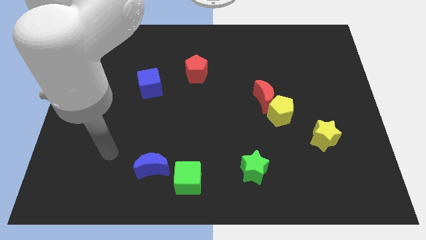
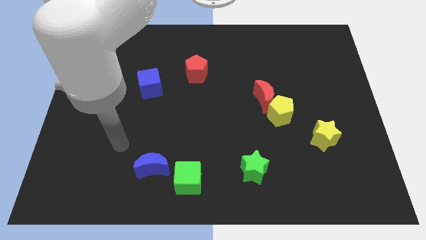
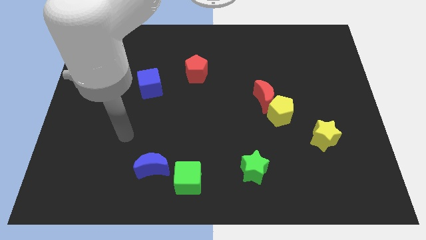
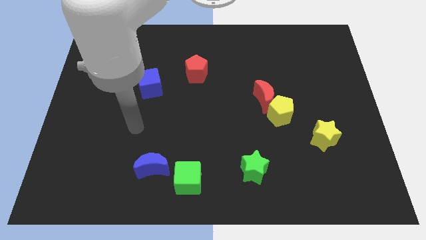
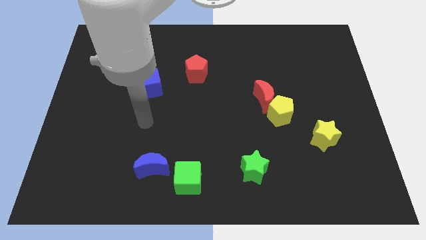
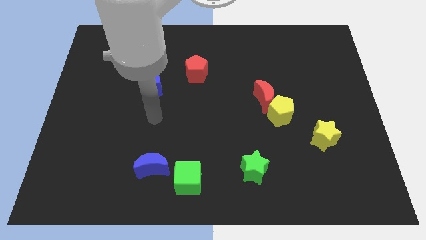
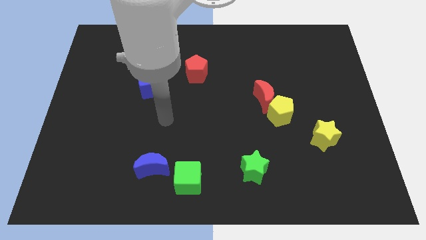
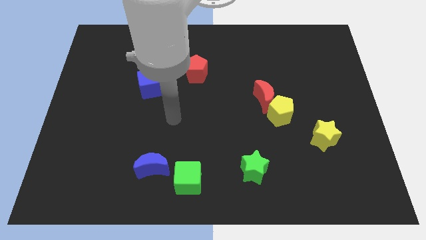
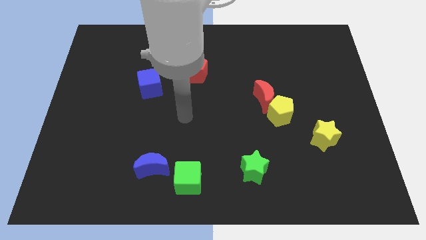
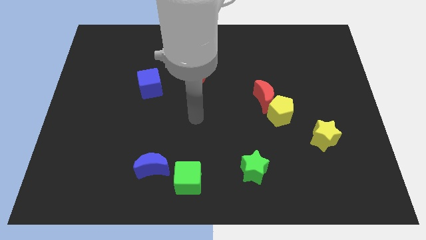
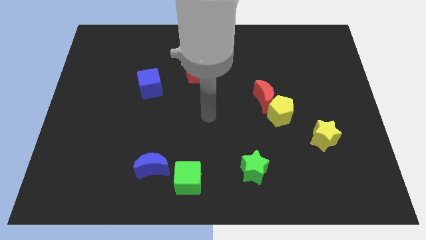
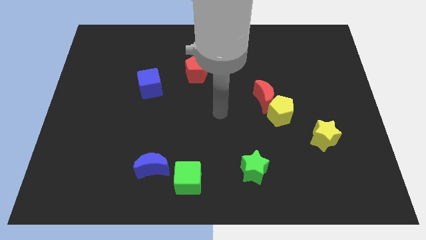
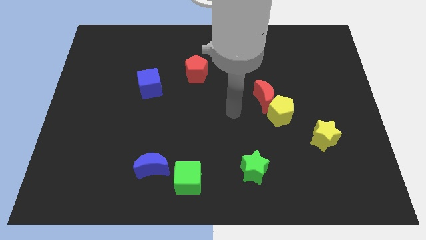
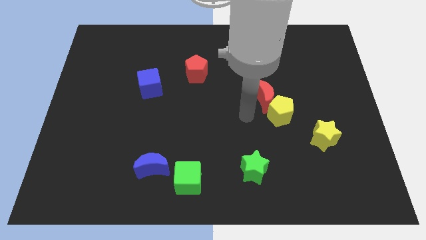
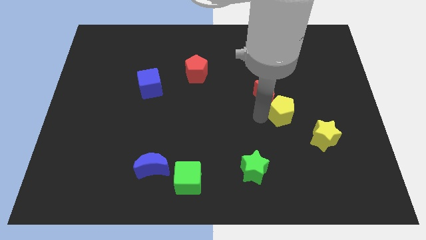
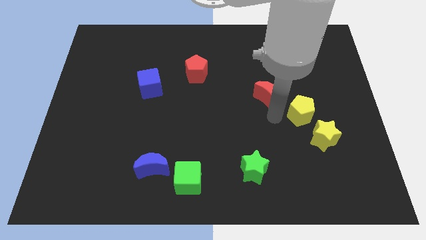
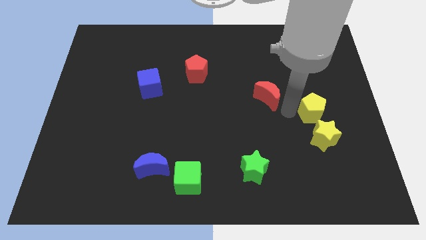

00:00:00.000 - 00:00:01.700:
move the red moon away from the yellow pentagon

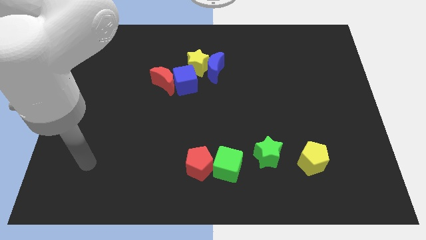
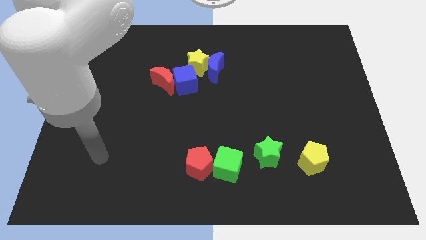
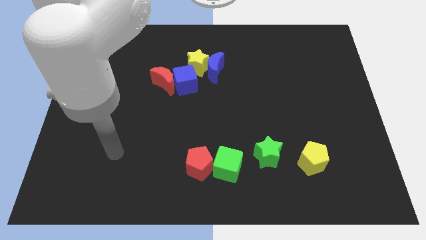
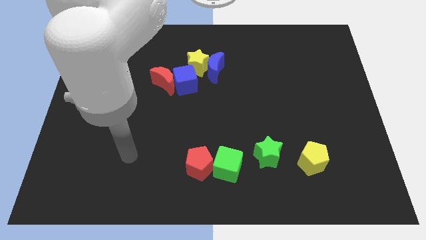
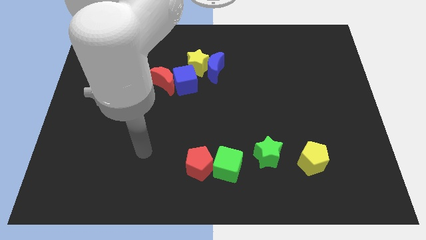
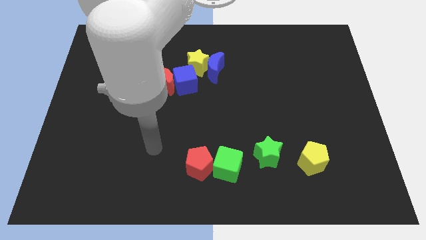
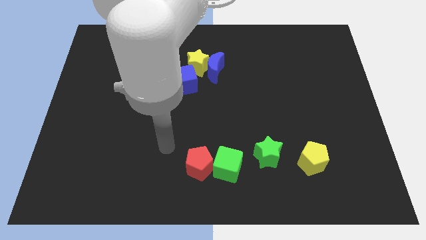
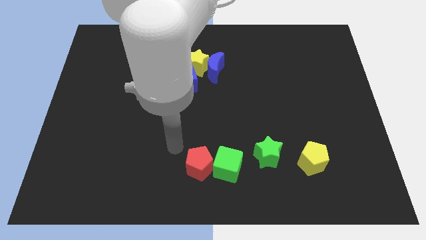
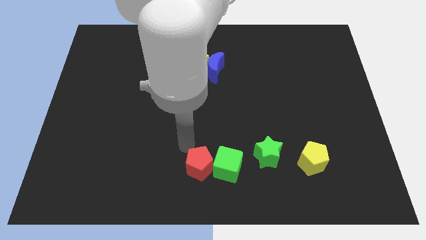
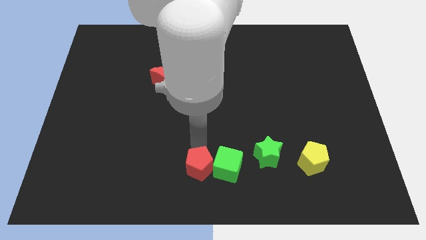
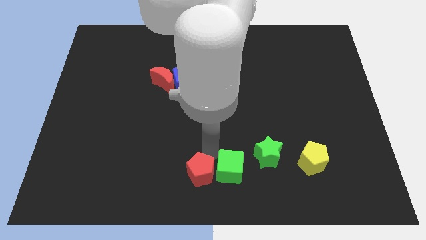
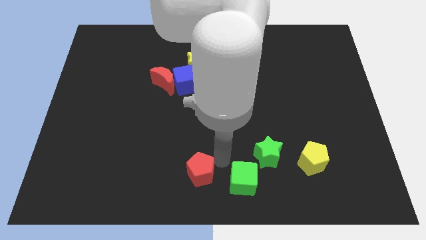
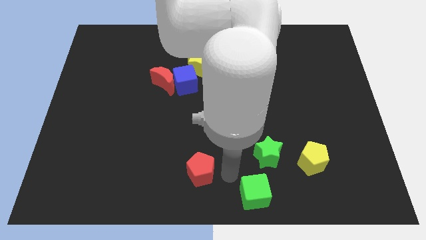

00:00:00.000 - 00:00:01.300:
move the red pentagon away from the green cube

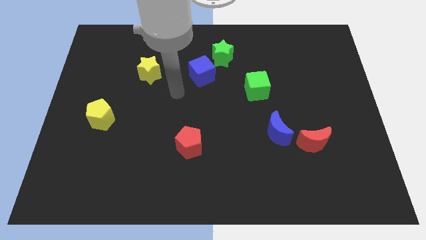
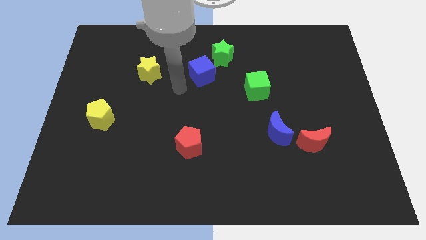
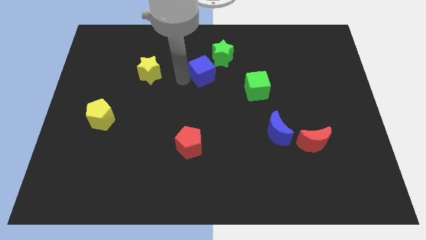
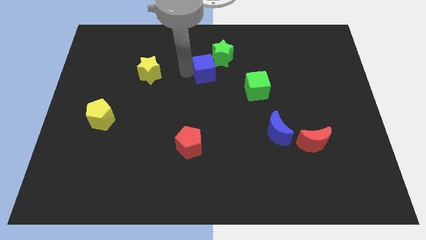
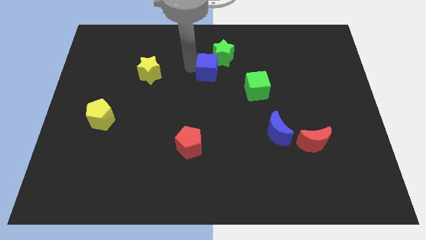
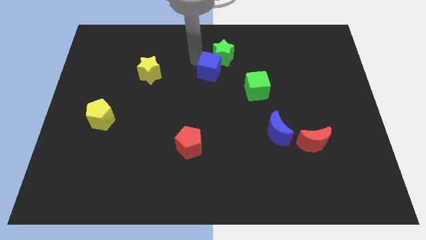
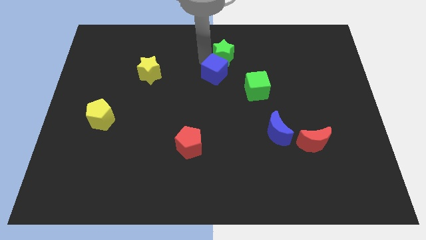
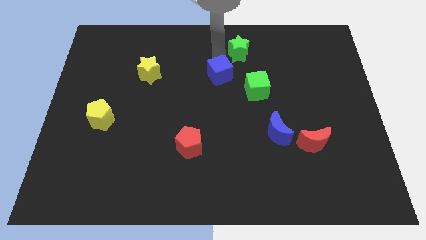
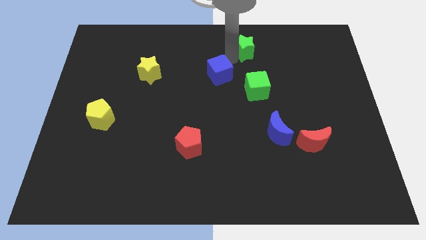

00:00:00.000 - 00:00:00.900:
separate the blue cube from the green star

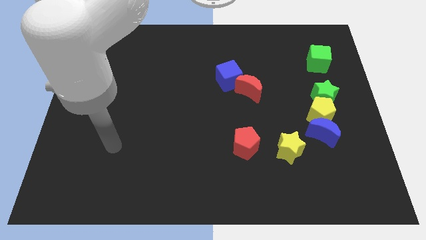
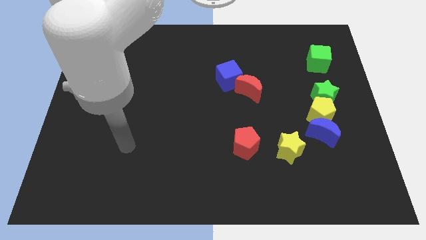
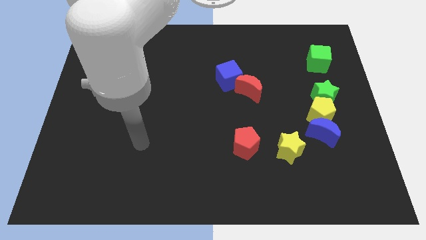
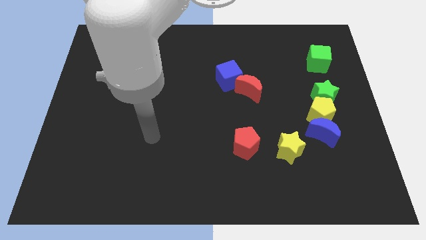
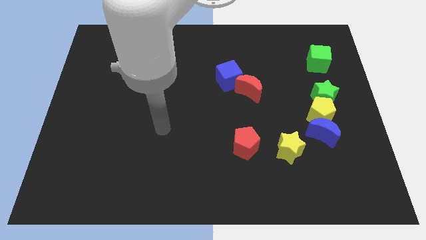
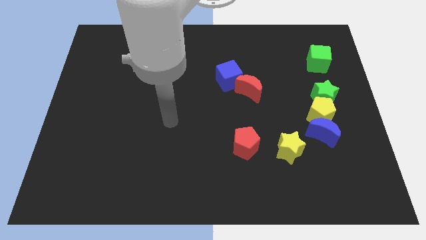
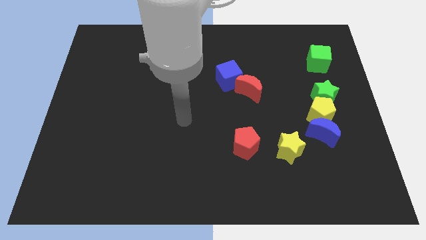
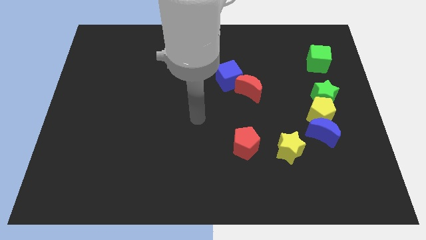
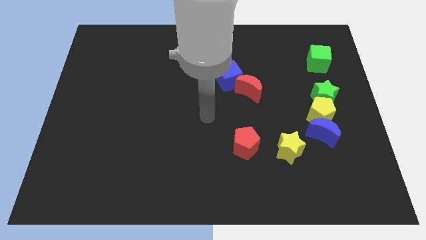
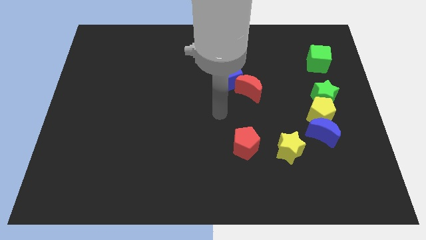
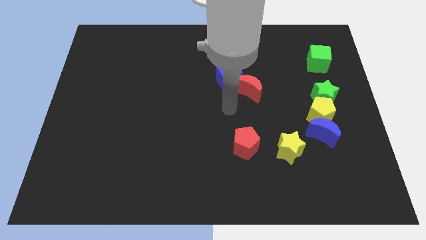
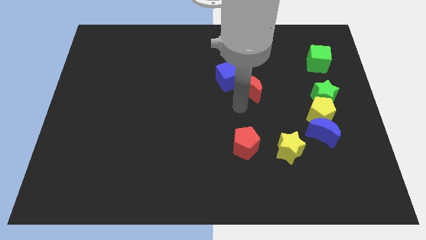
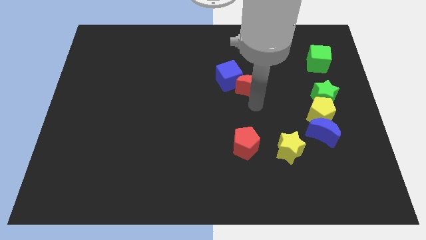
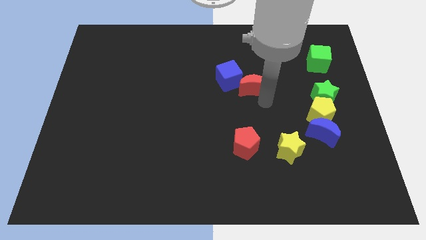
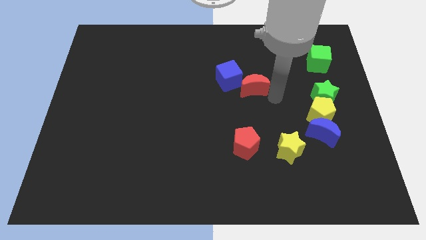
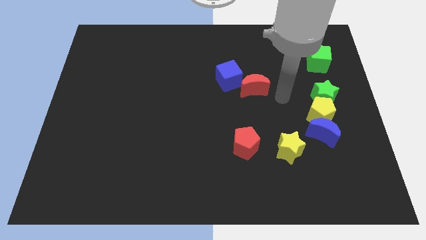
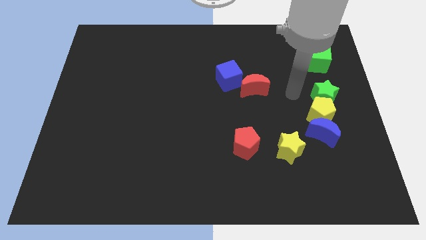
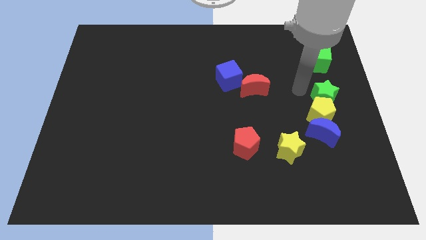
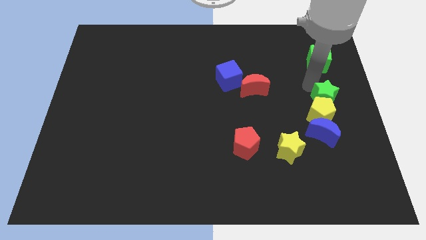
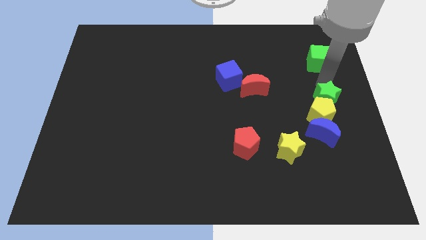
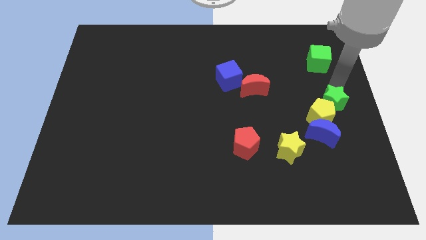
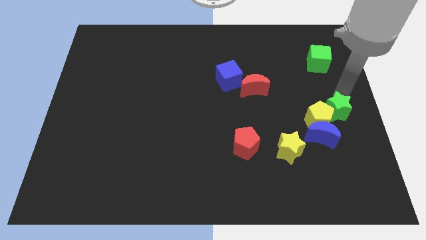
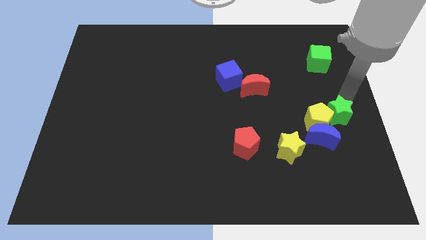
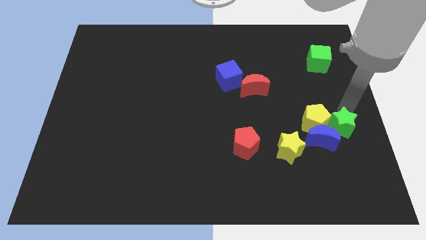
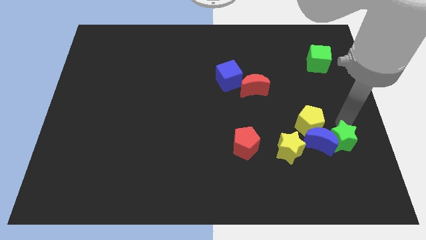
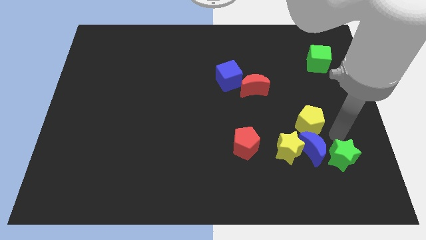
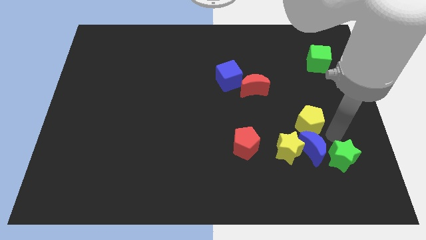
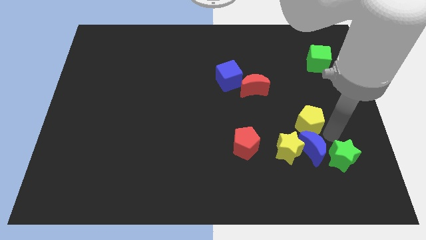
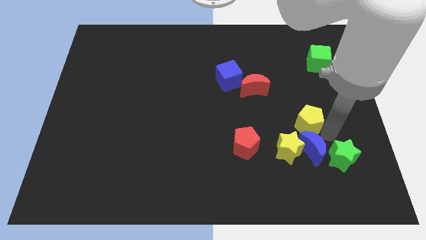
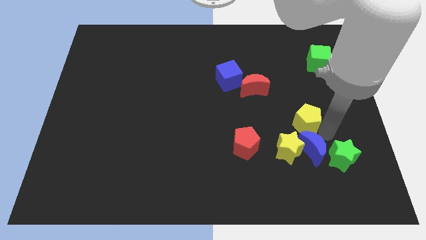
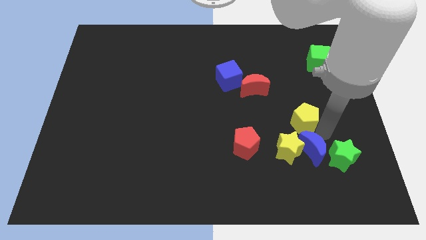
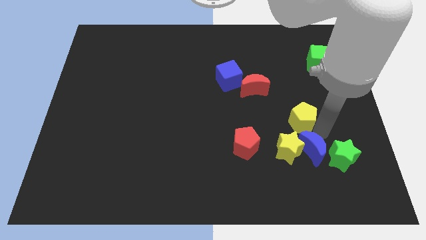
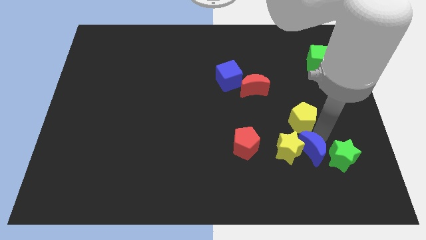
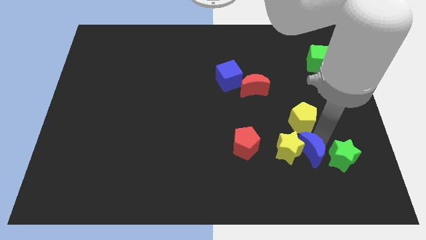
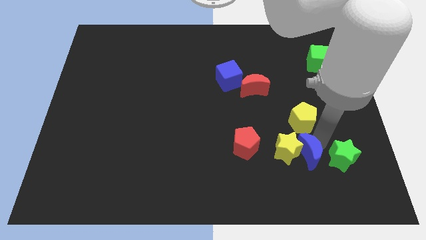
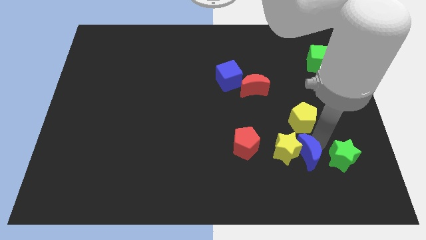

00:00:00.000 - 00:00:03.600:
pull the yellow pentagon apart from the blue moon and green star

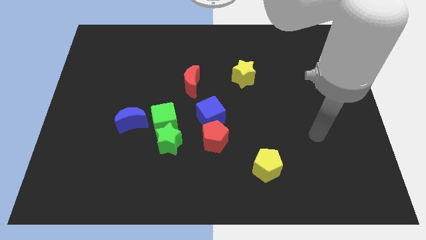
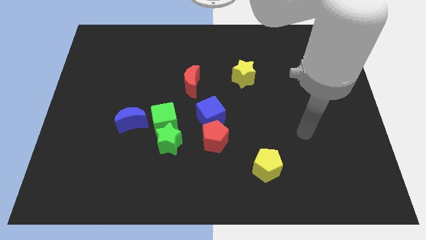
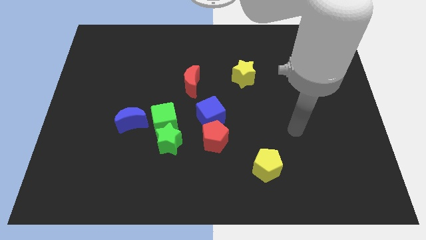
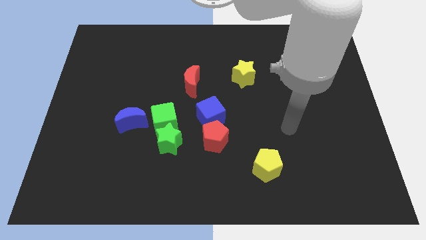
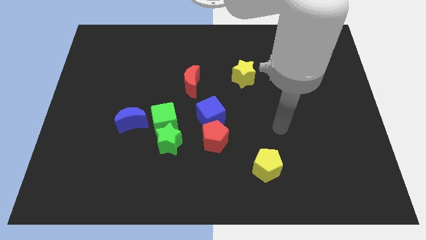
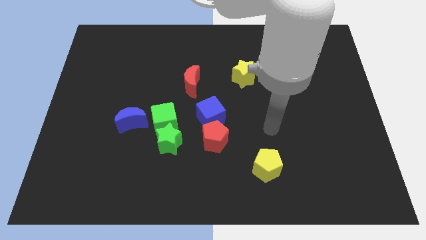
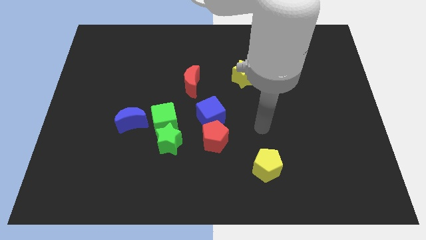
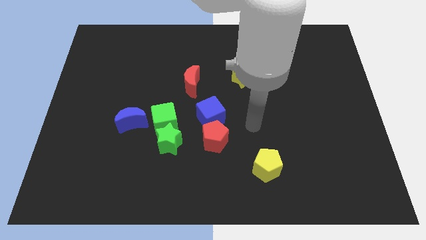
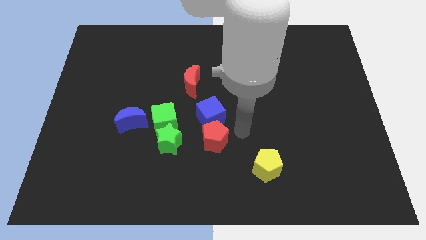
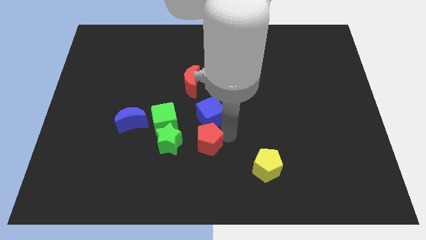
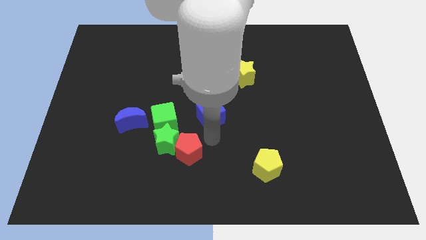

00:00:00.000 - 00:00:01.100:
separate the blue cube from the red pentagon

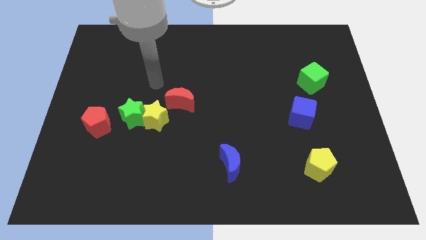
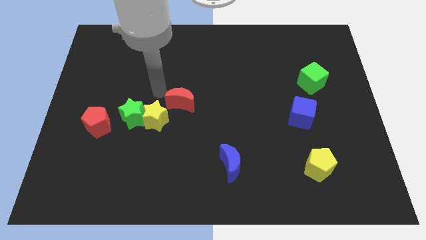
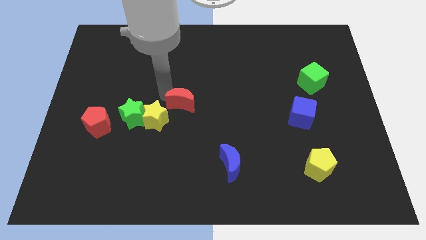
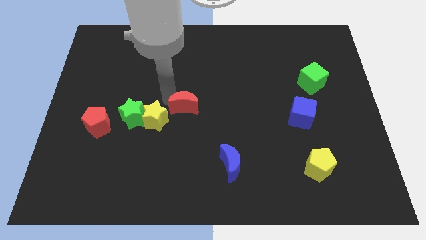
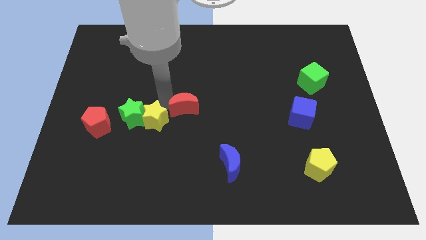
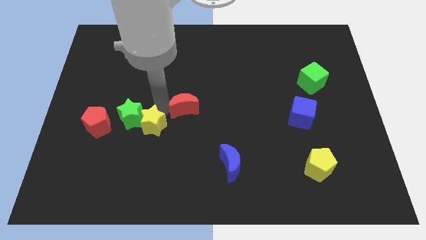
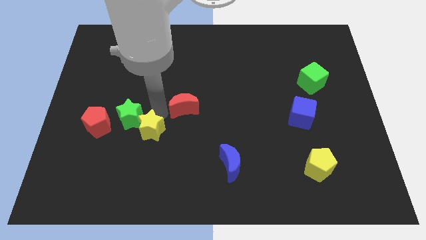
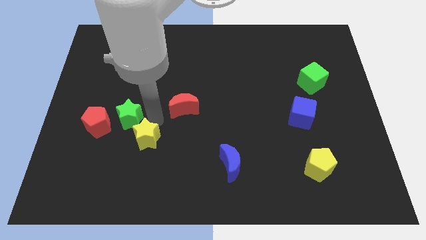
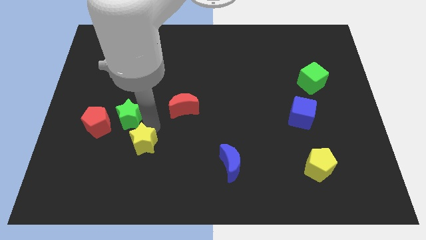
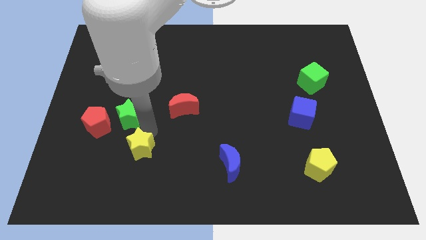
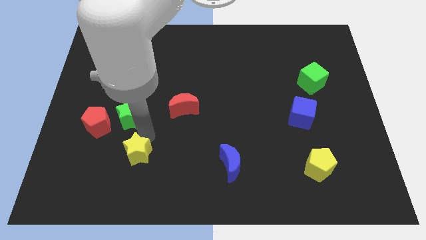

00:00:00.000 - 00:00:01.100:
move the yellow star away from the green star and red moon
